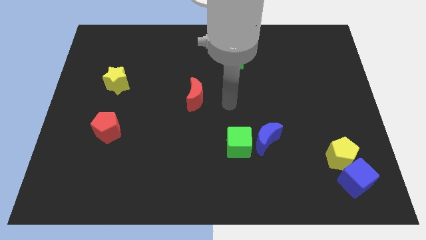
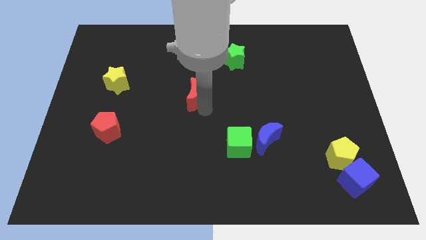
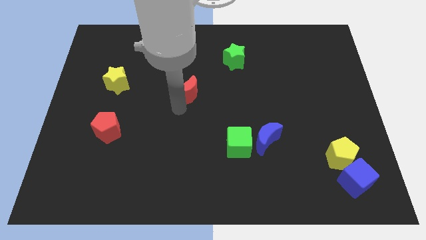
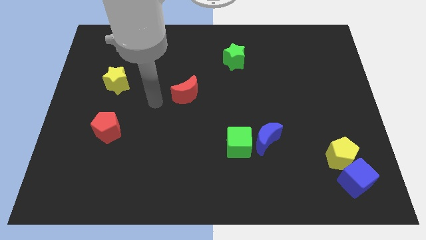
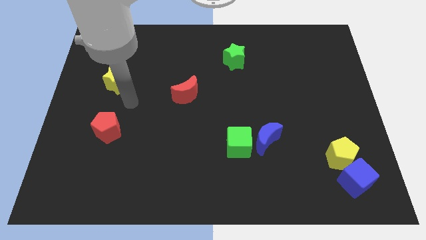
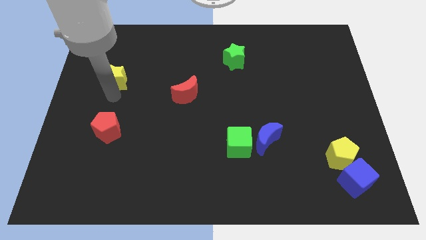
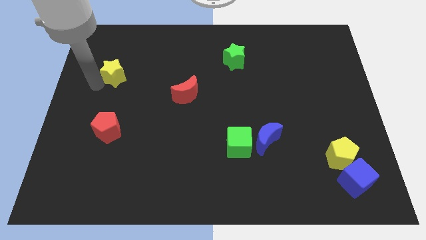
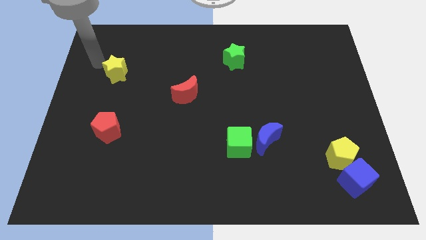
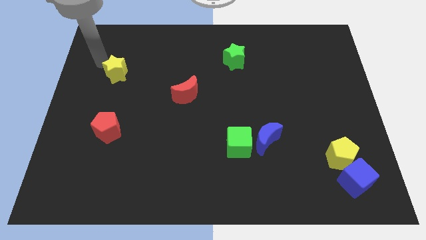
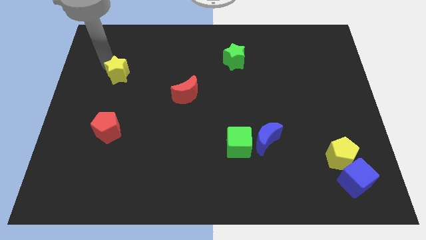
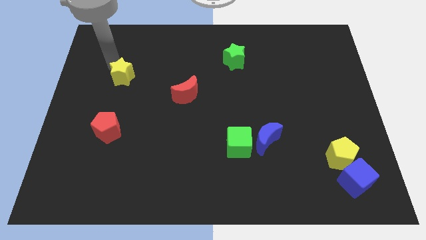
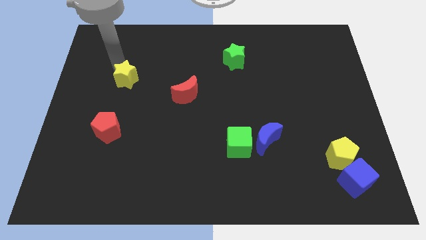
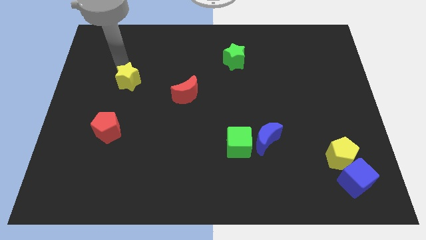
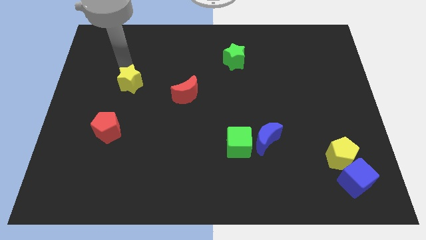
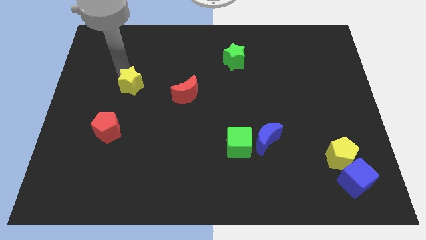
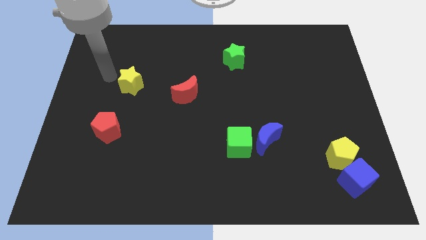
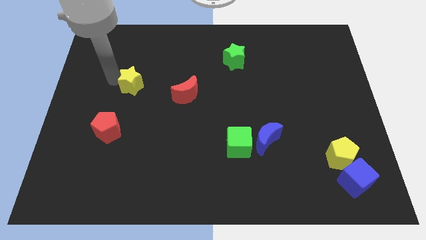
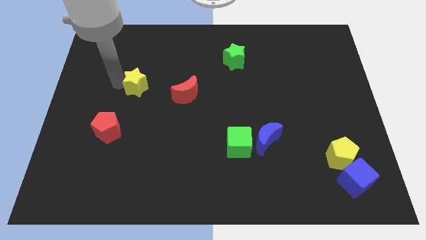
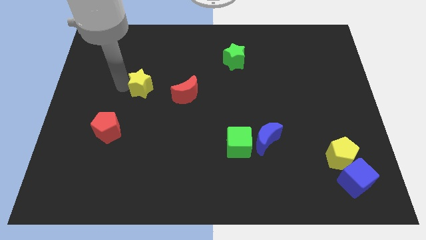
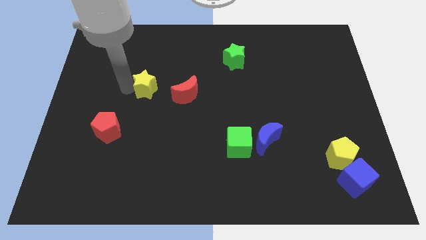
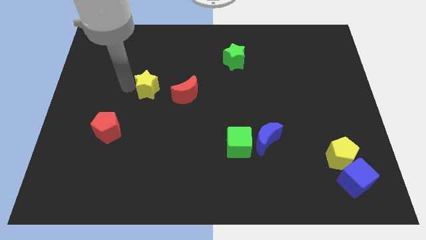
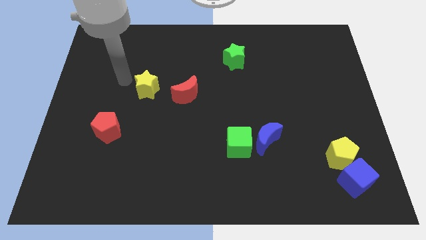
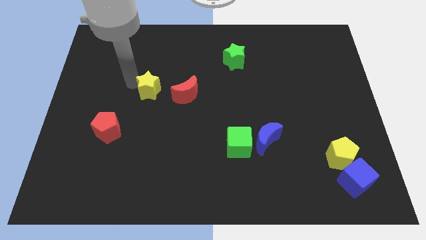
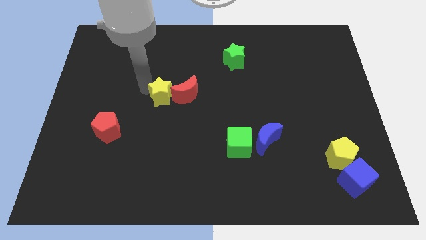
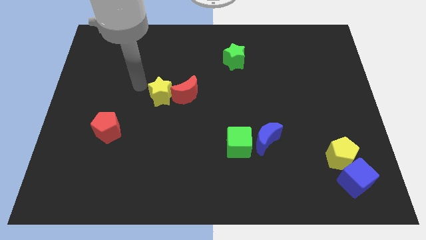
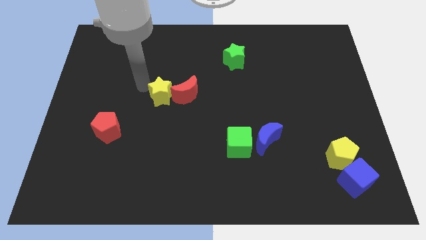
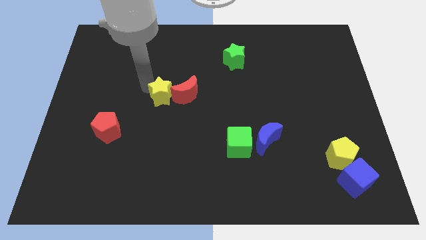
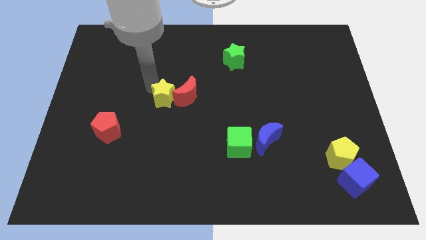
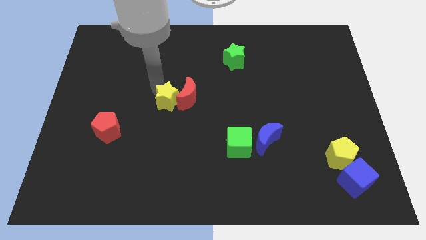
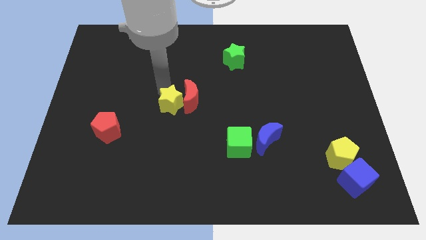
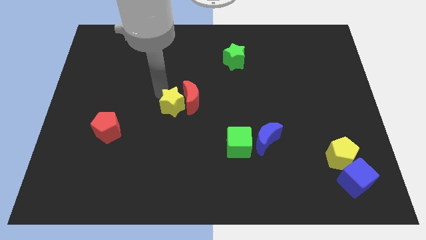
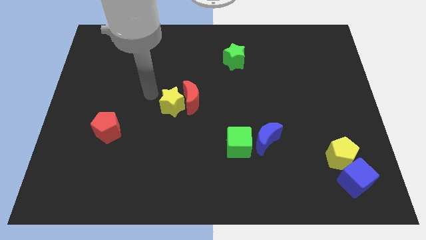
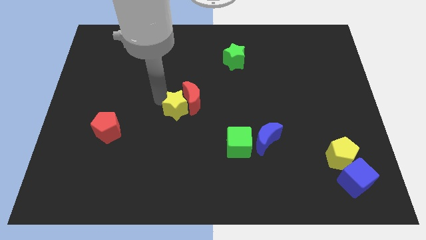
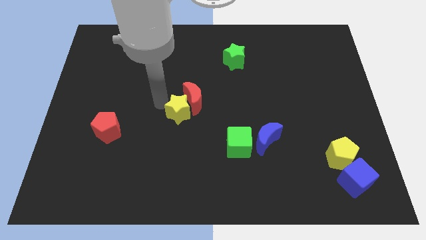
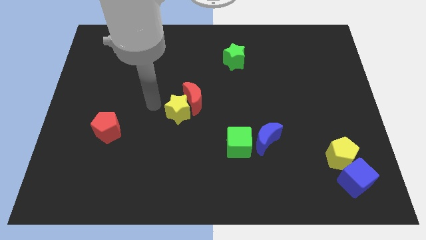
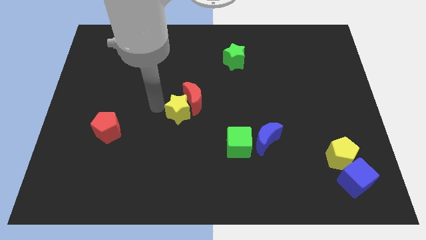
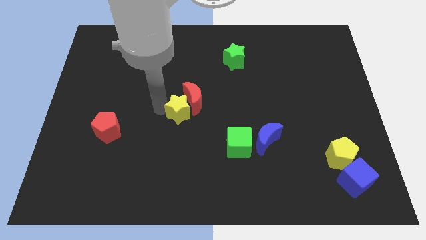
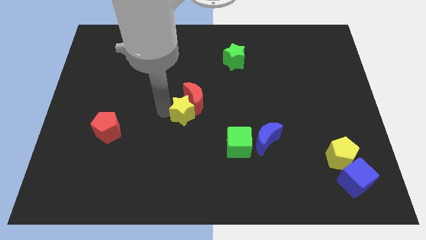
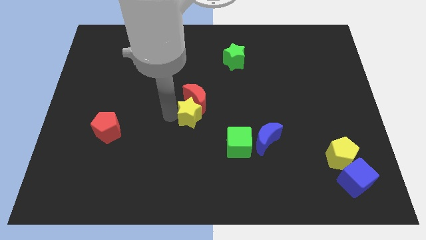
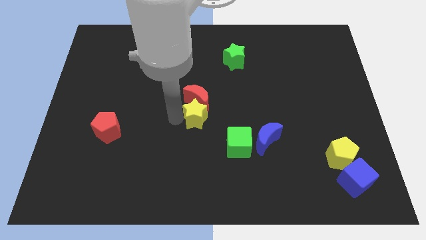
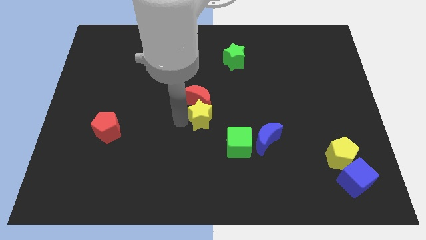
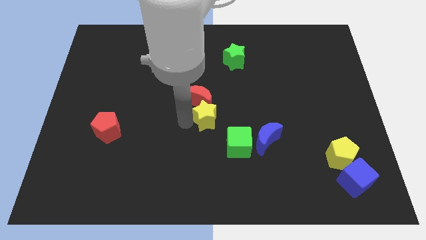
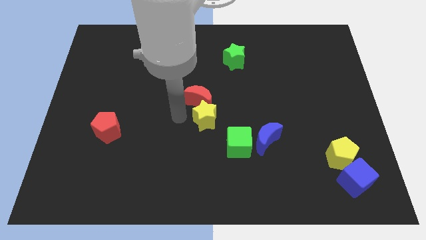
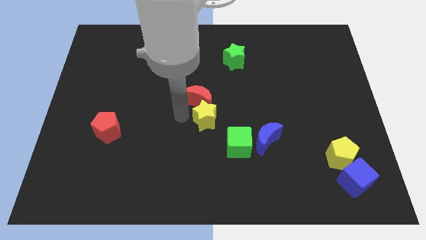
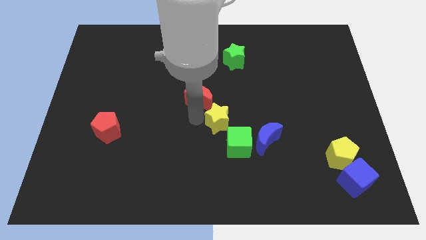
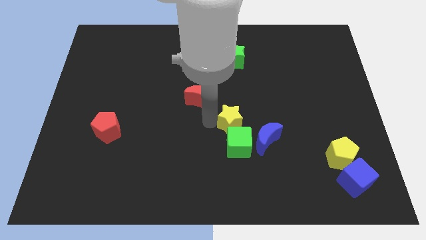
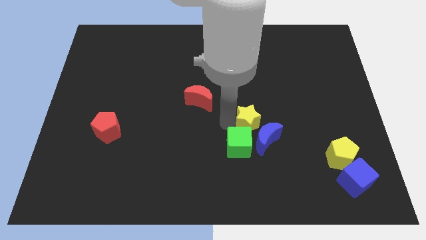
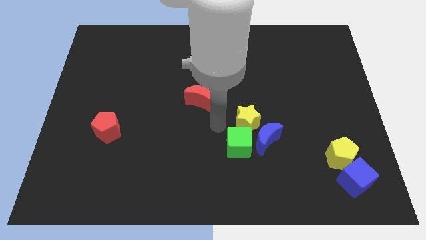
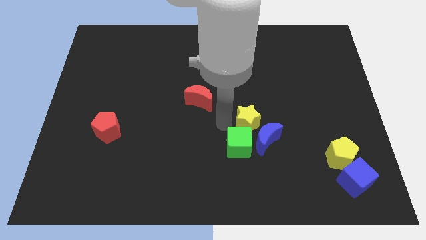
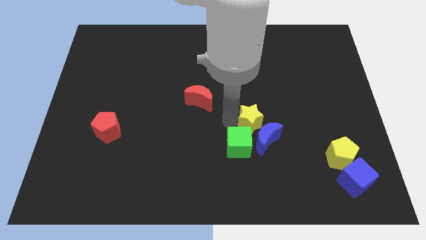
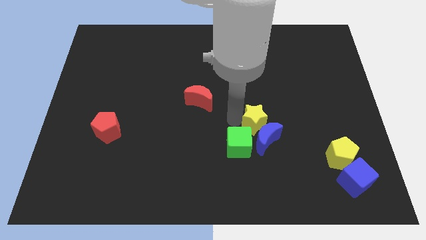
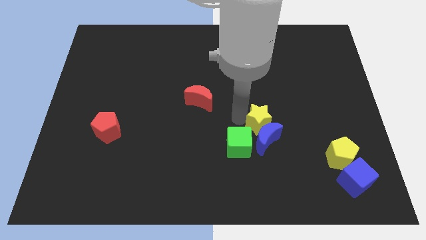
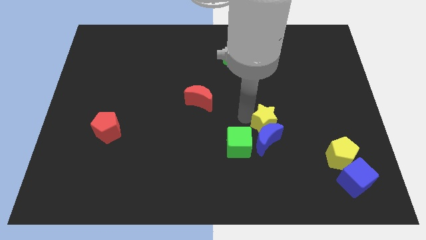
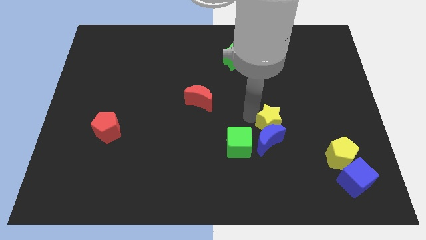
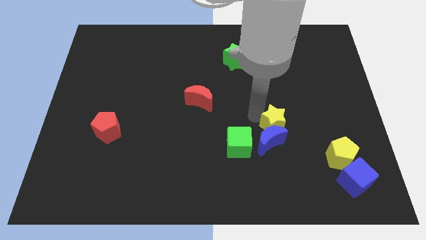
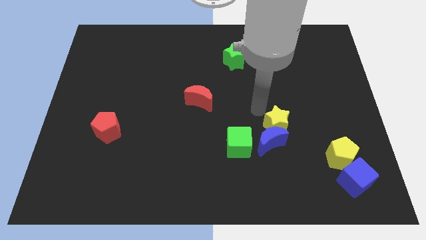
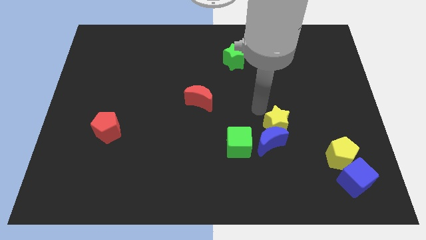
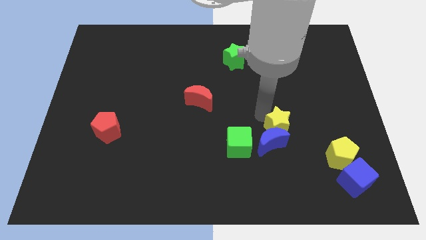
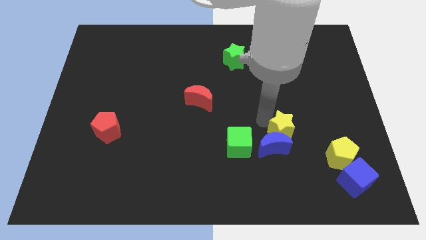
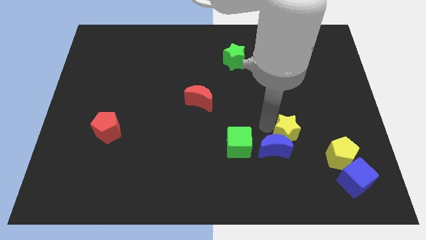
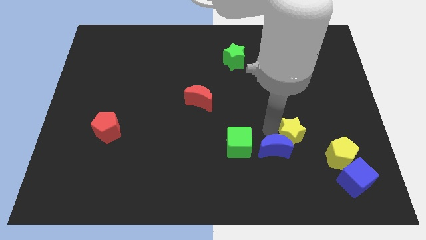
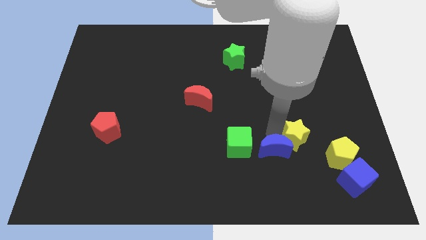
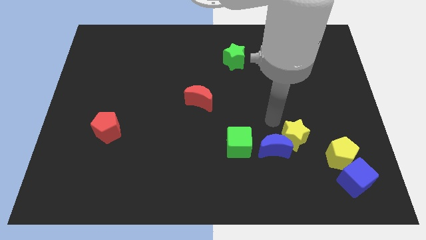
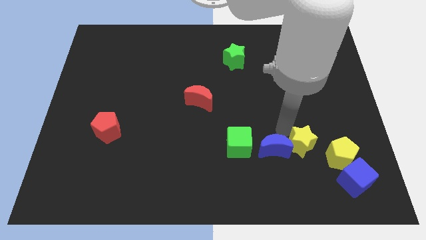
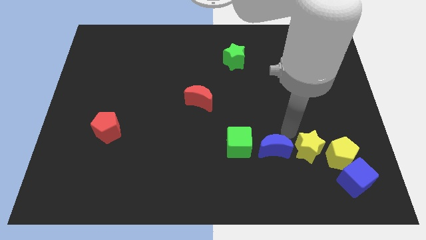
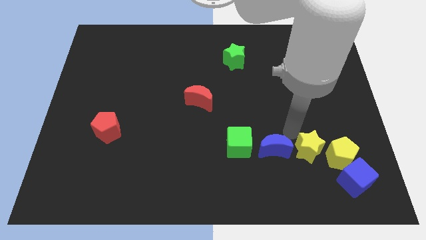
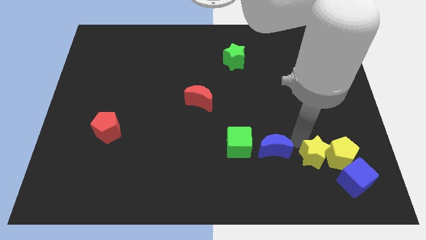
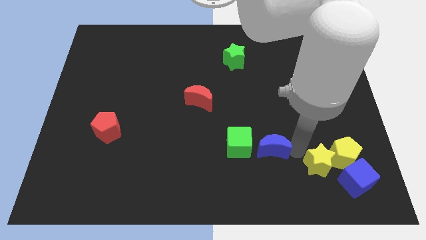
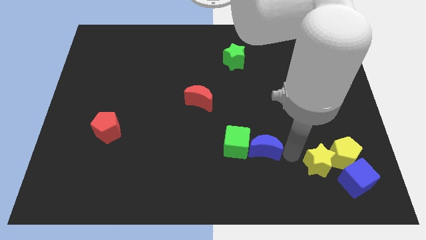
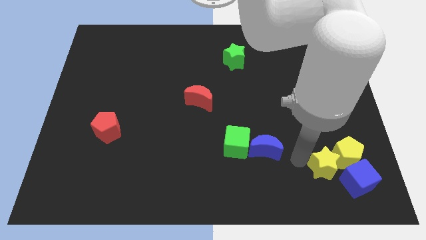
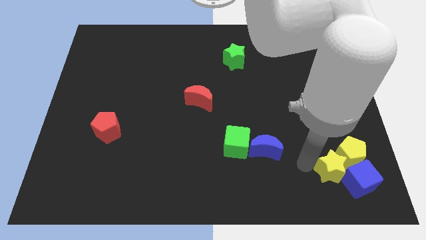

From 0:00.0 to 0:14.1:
put the yellow star towards the blue cube

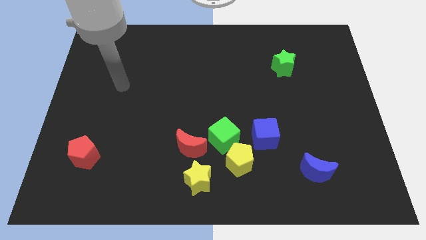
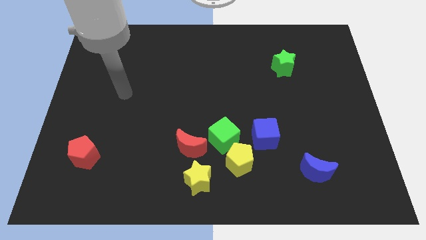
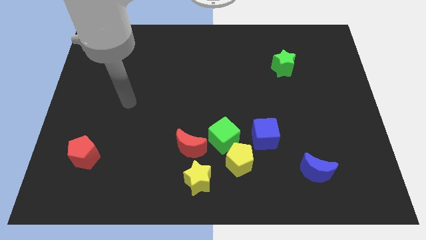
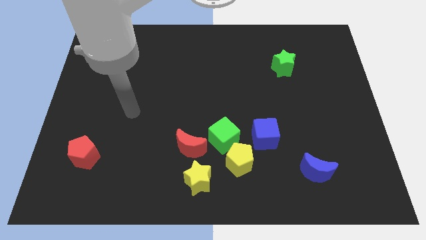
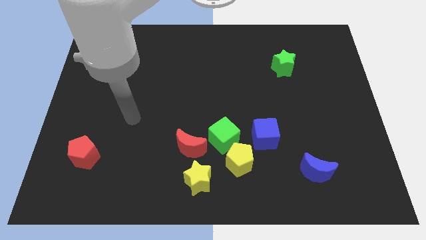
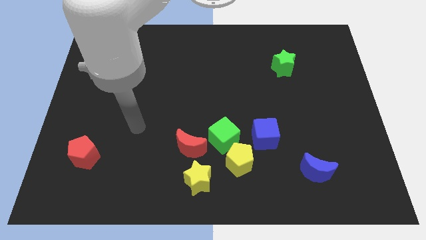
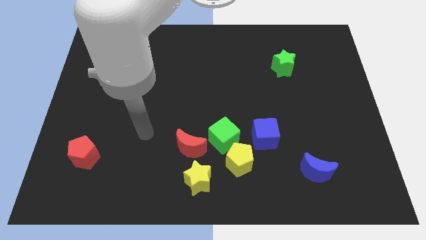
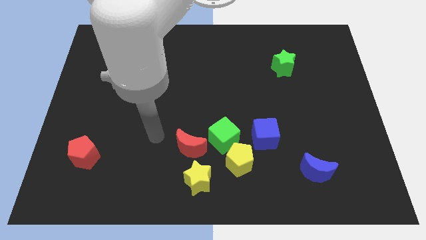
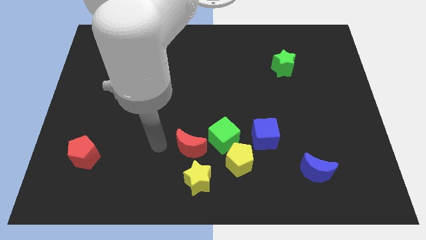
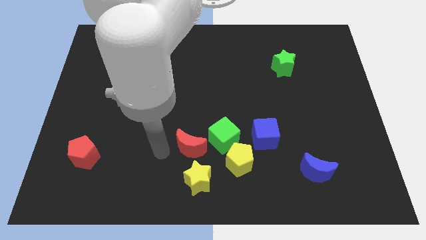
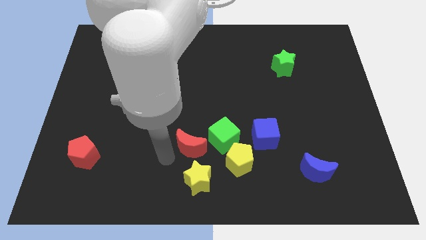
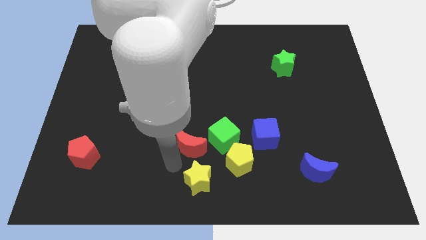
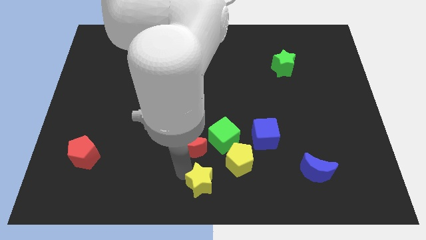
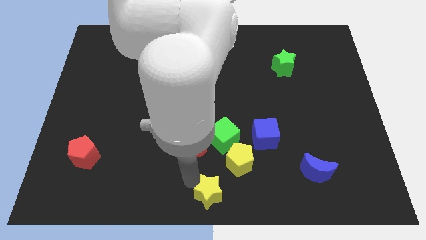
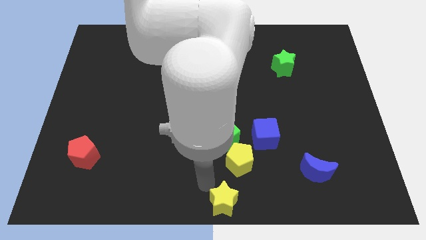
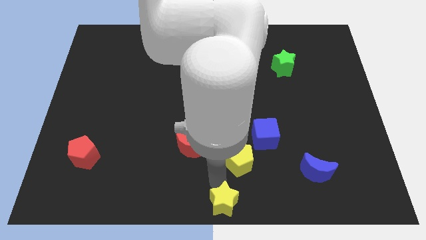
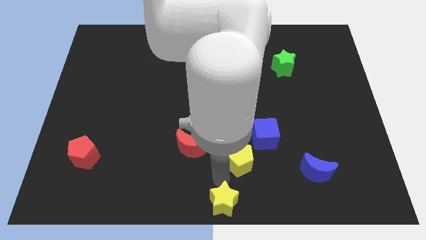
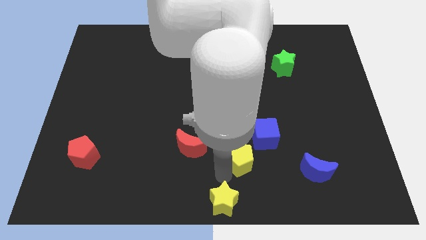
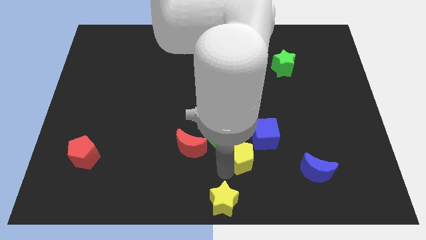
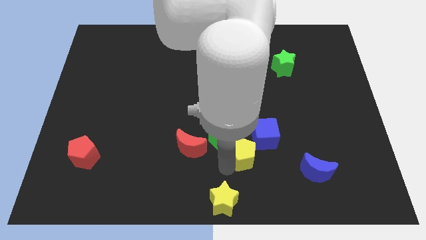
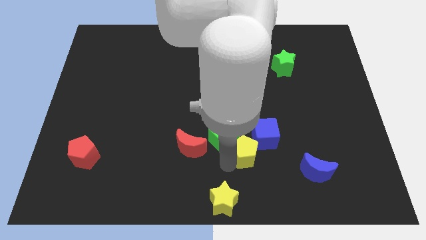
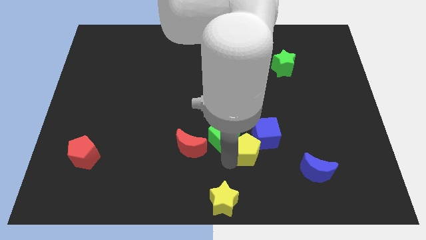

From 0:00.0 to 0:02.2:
move the yellow pentagon to the blue cube
